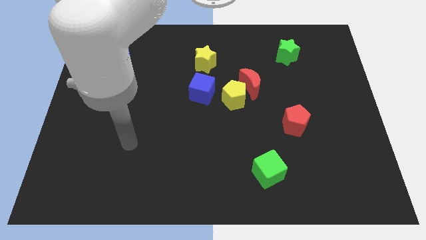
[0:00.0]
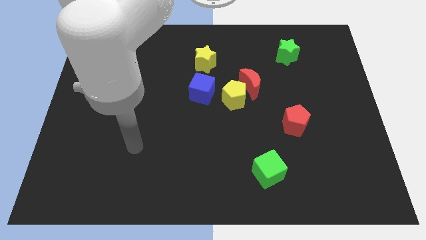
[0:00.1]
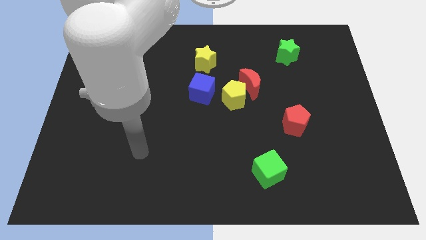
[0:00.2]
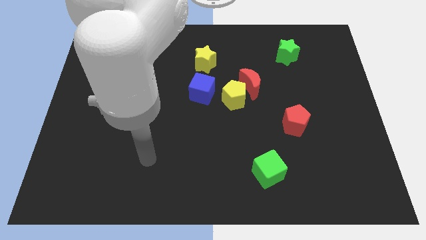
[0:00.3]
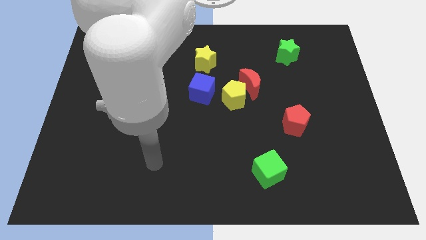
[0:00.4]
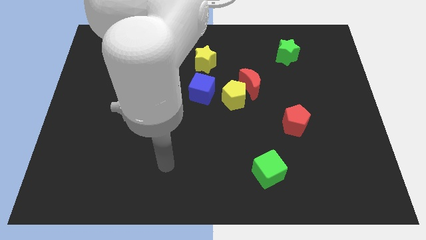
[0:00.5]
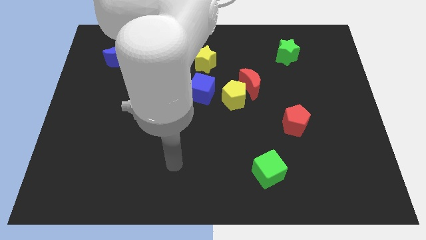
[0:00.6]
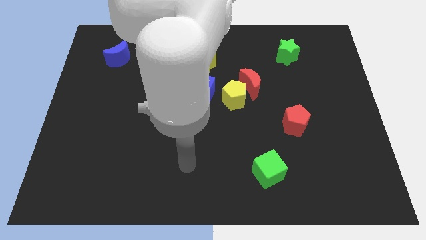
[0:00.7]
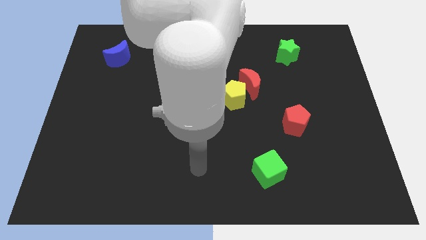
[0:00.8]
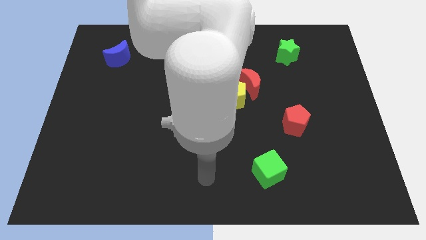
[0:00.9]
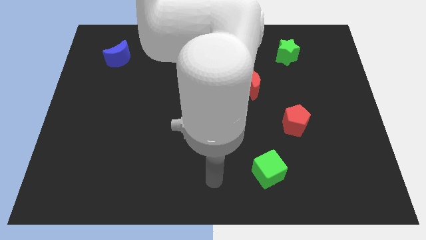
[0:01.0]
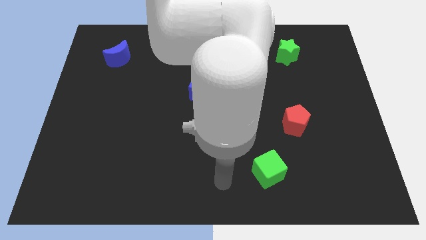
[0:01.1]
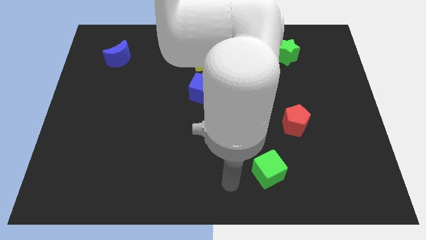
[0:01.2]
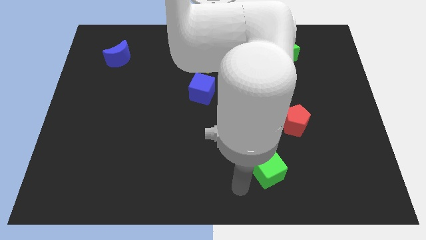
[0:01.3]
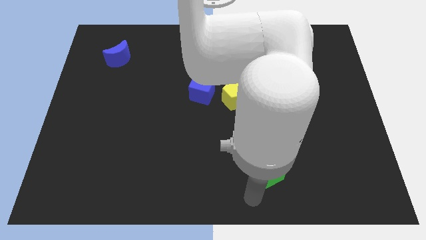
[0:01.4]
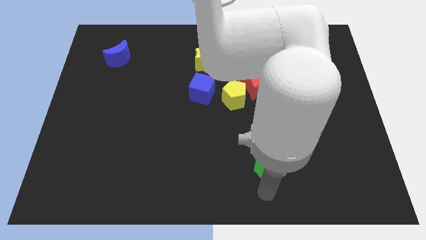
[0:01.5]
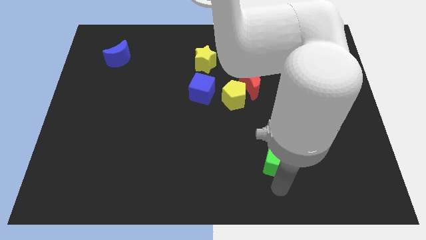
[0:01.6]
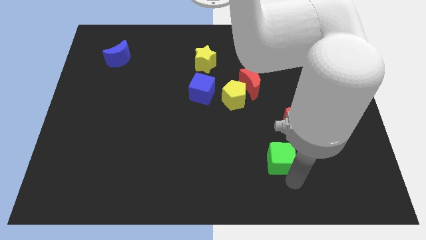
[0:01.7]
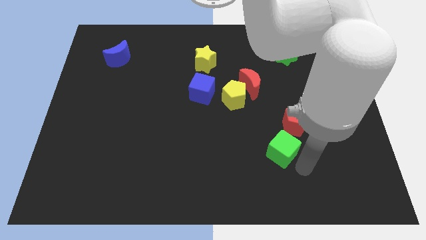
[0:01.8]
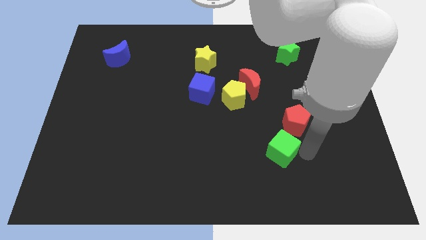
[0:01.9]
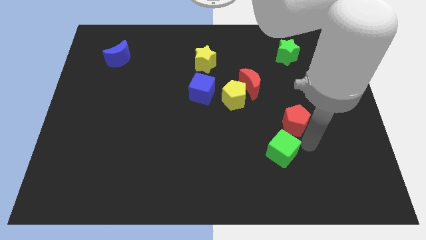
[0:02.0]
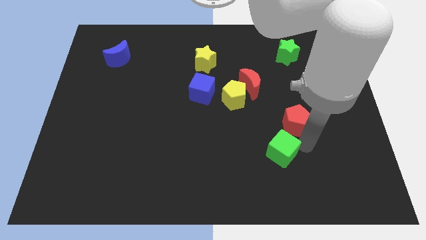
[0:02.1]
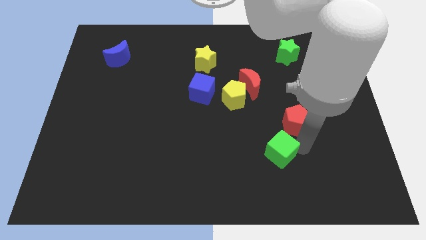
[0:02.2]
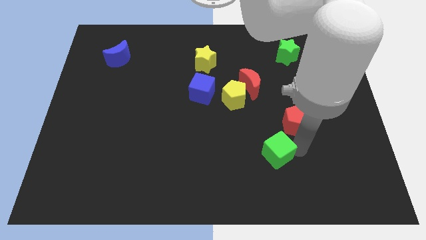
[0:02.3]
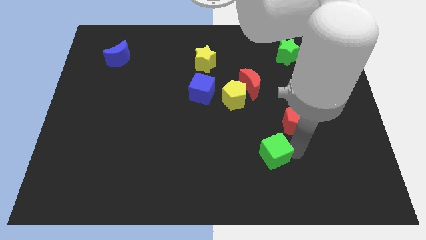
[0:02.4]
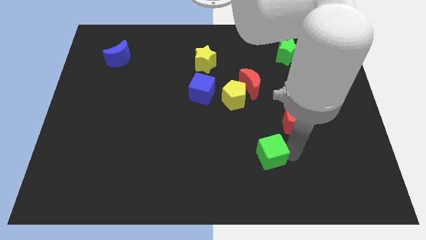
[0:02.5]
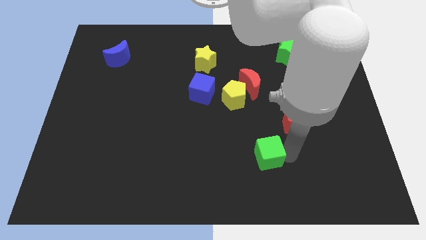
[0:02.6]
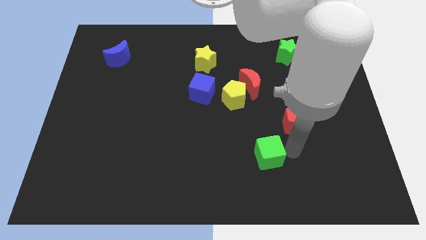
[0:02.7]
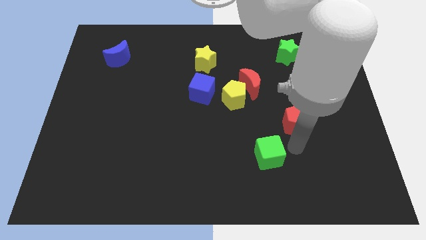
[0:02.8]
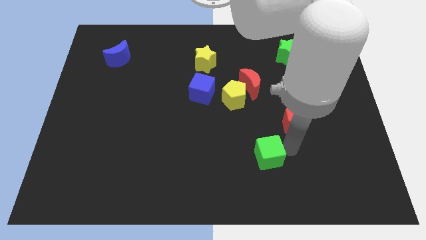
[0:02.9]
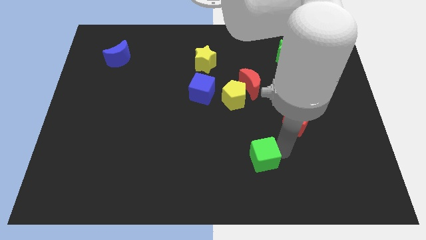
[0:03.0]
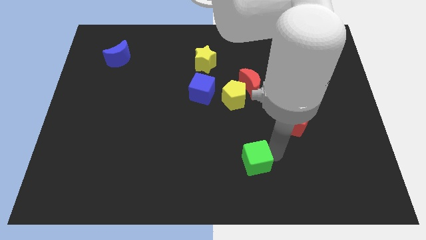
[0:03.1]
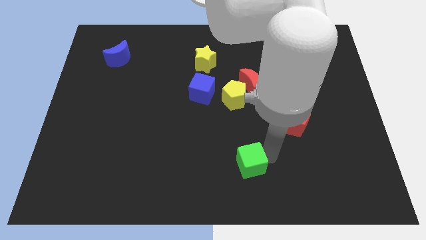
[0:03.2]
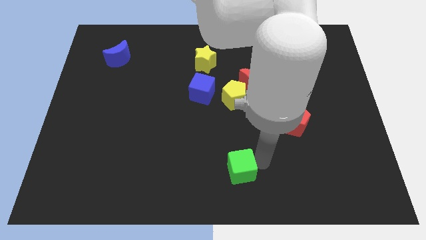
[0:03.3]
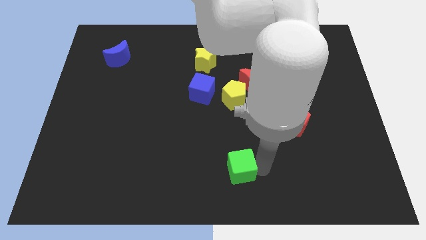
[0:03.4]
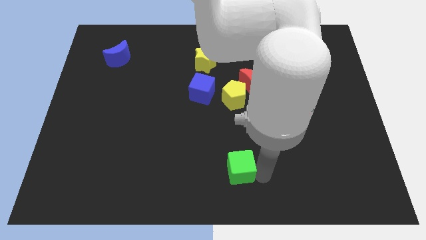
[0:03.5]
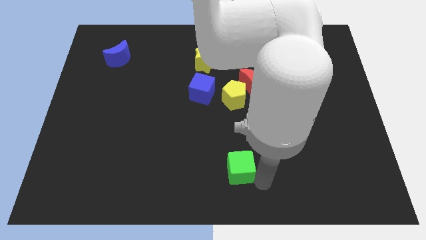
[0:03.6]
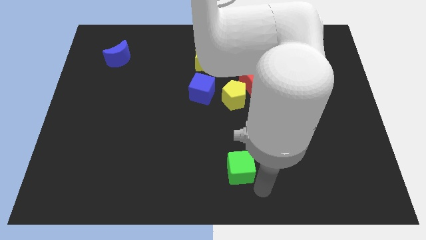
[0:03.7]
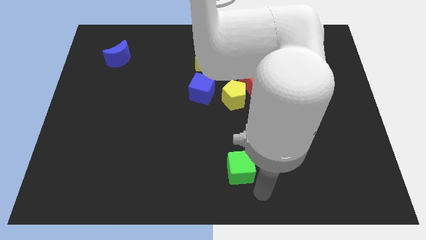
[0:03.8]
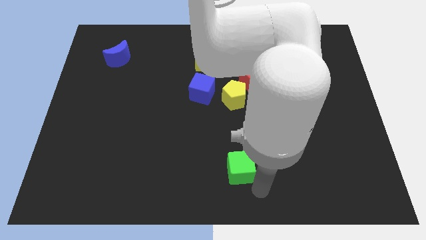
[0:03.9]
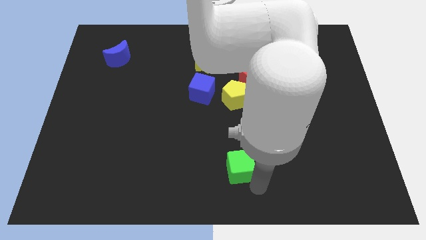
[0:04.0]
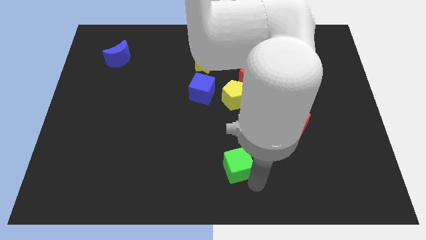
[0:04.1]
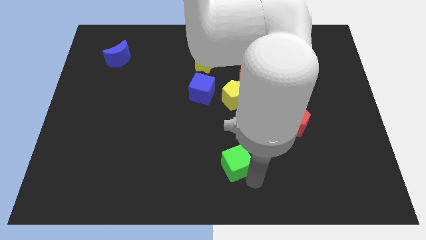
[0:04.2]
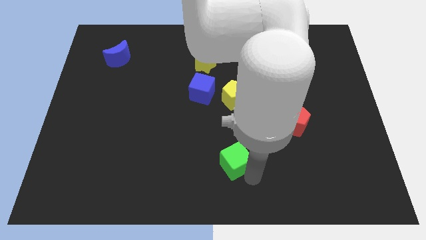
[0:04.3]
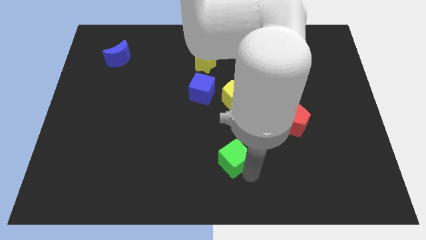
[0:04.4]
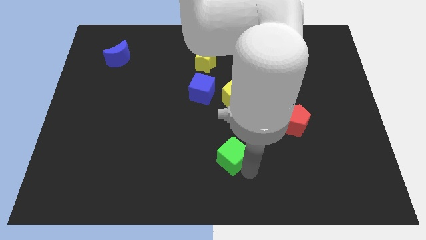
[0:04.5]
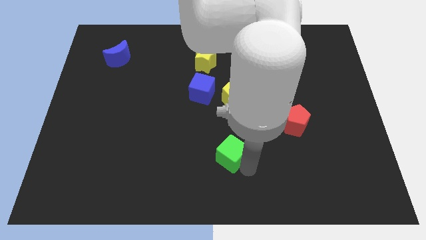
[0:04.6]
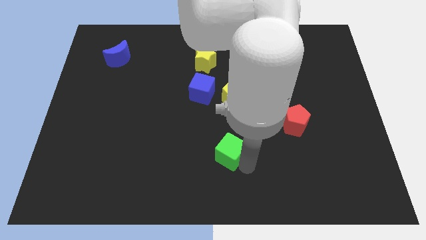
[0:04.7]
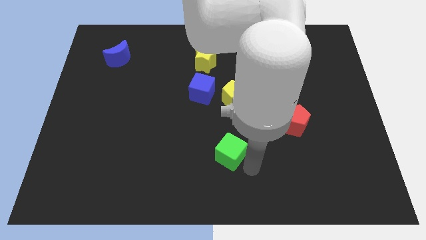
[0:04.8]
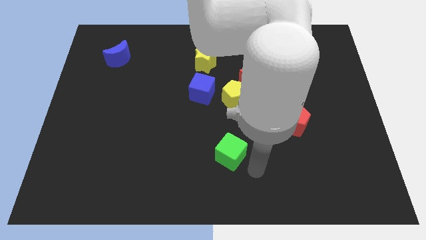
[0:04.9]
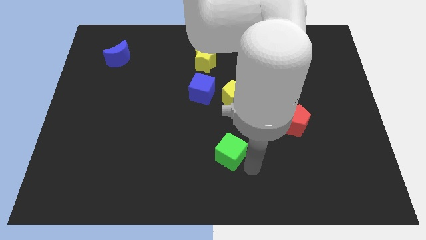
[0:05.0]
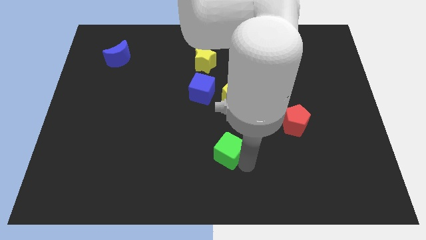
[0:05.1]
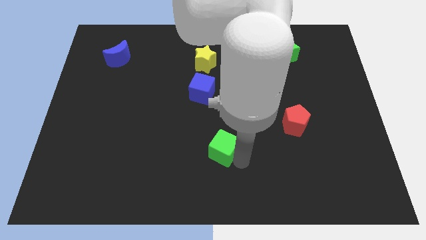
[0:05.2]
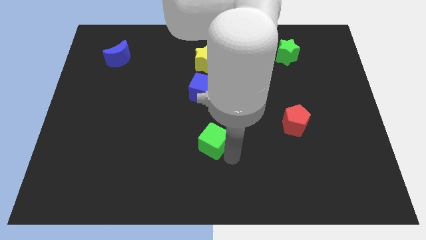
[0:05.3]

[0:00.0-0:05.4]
slide the green cube to the bottom side of the blue cube

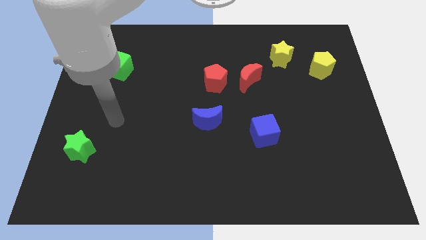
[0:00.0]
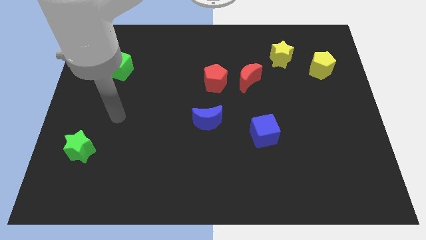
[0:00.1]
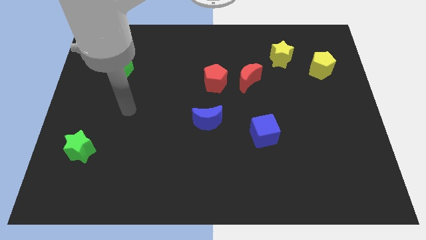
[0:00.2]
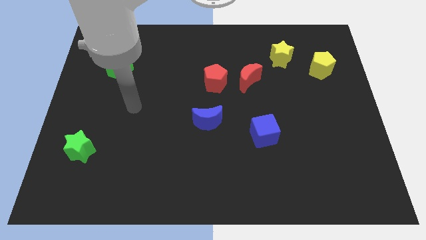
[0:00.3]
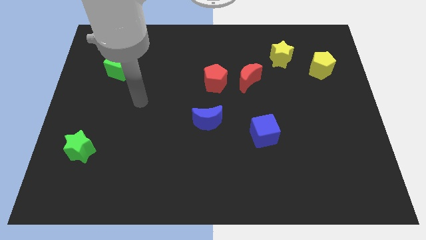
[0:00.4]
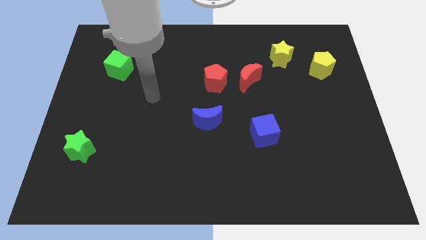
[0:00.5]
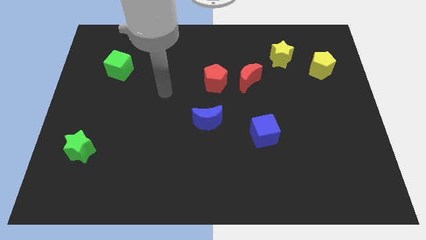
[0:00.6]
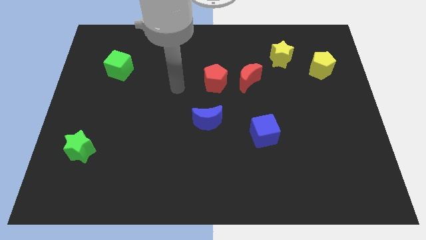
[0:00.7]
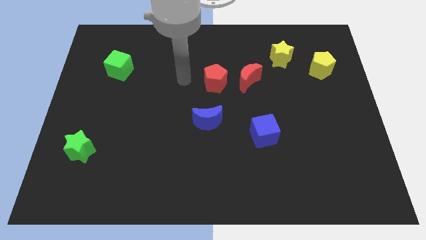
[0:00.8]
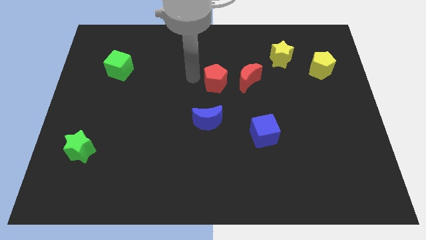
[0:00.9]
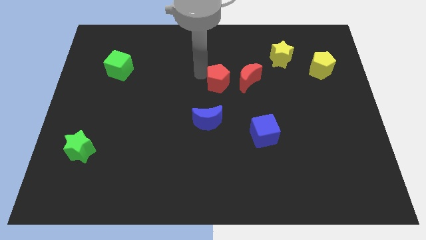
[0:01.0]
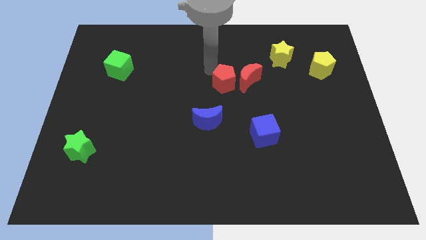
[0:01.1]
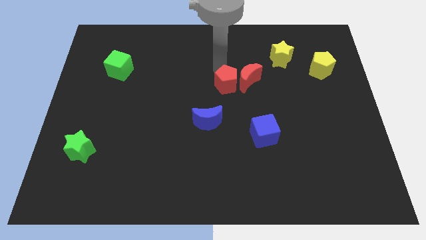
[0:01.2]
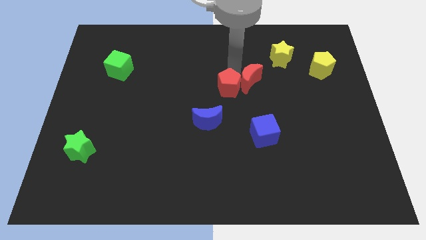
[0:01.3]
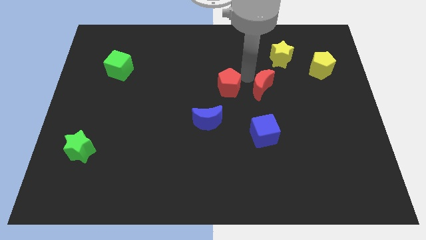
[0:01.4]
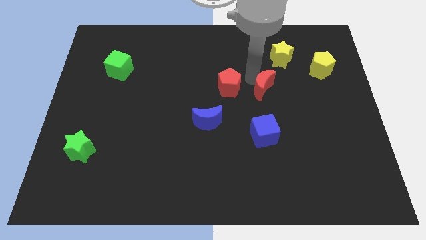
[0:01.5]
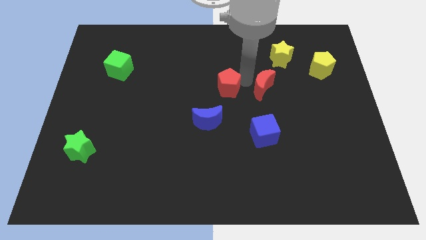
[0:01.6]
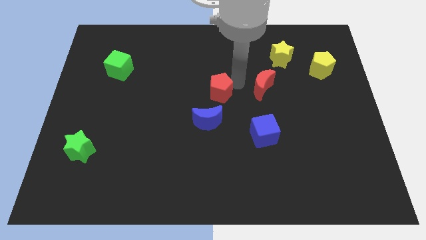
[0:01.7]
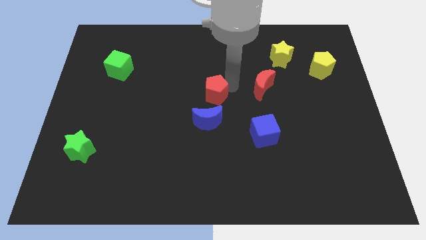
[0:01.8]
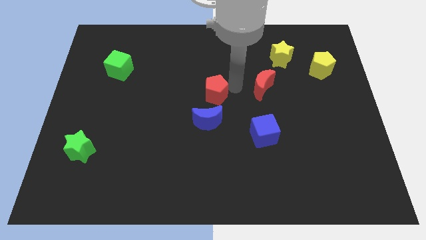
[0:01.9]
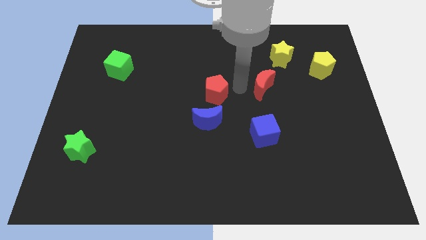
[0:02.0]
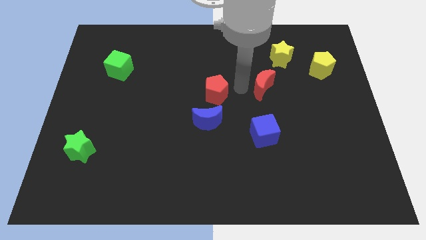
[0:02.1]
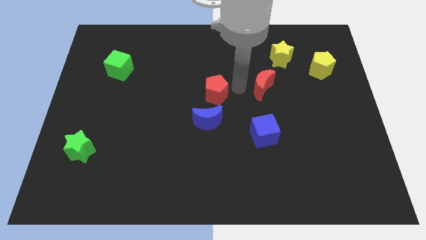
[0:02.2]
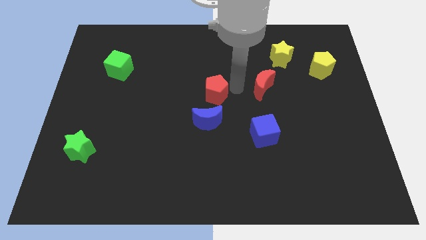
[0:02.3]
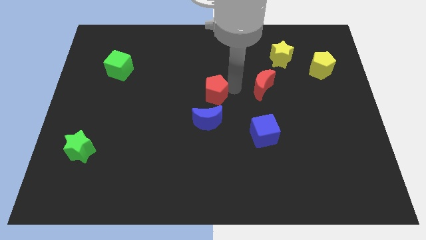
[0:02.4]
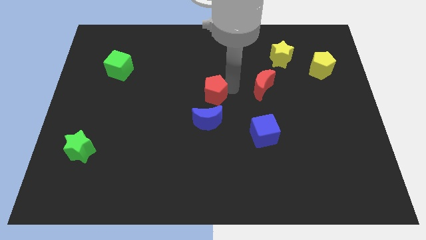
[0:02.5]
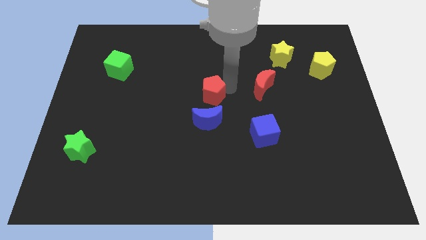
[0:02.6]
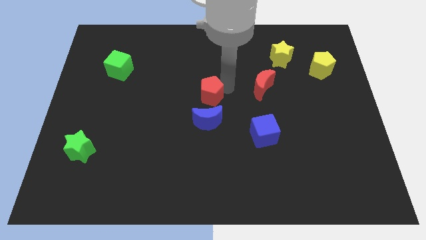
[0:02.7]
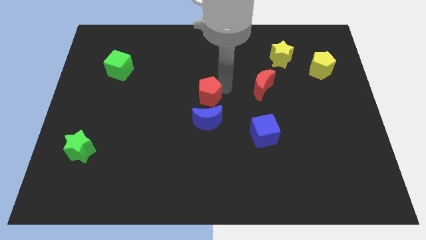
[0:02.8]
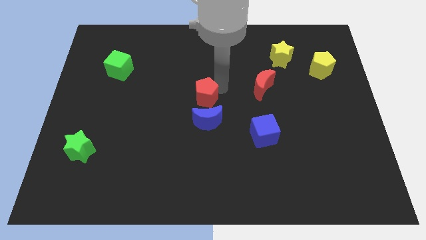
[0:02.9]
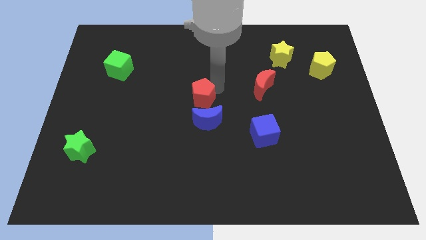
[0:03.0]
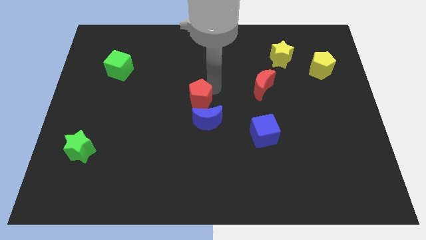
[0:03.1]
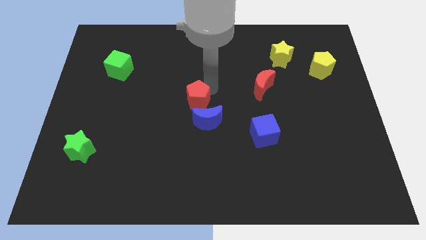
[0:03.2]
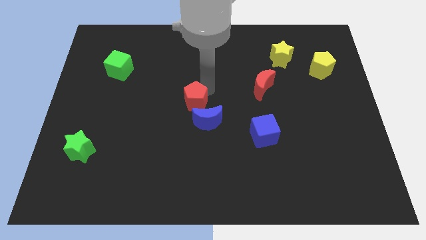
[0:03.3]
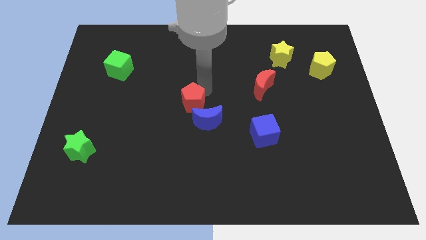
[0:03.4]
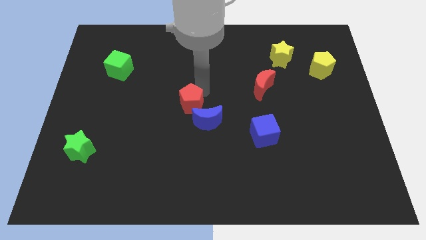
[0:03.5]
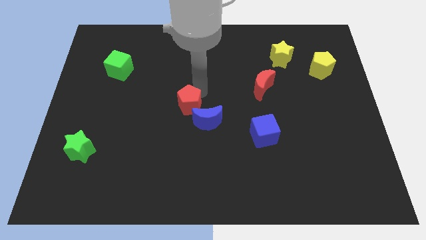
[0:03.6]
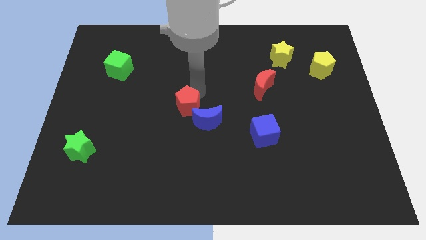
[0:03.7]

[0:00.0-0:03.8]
push the red pentagon just left of the blue moon
